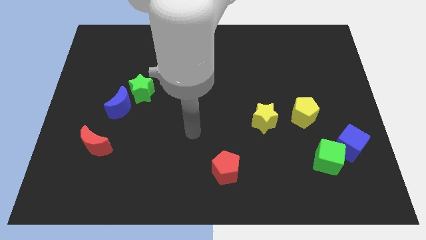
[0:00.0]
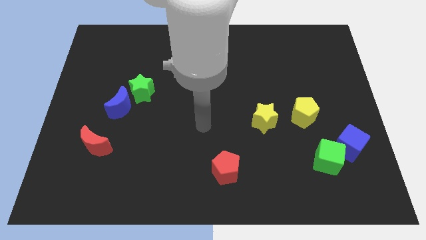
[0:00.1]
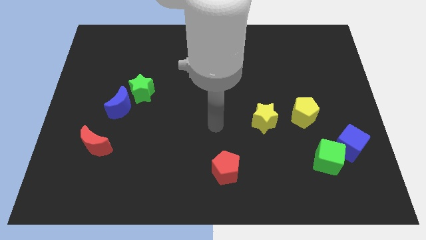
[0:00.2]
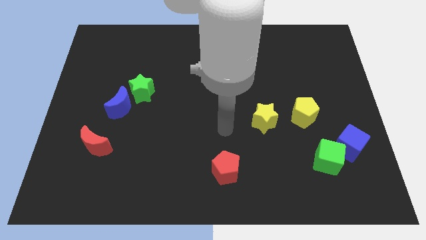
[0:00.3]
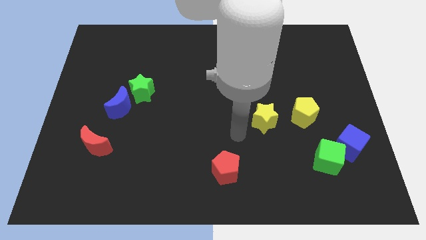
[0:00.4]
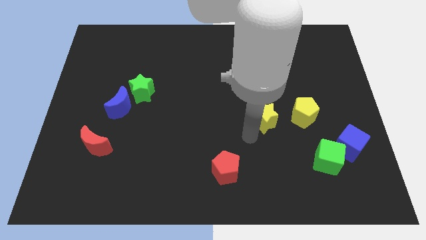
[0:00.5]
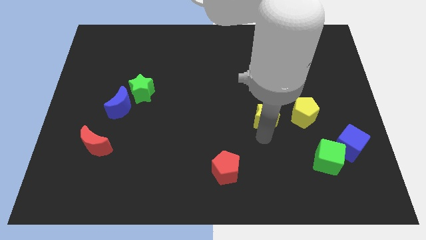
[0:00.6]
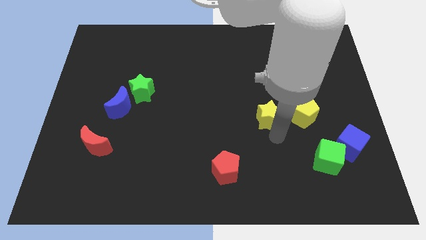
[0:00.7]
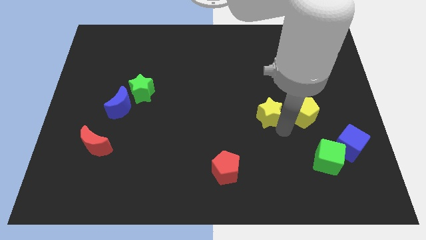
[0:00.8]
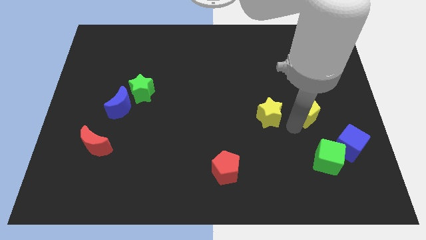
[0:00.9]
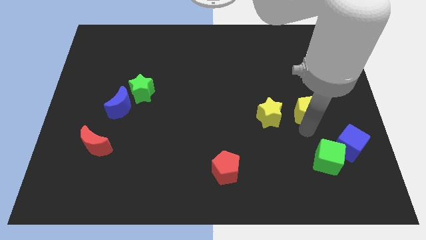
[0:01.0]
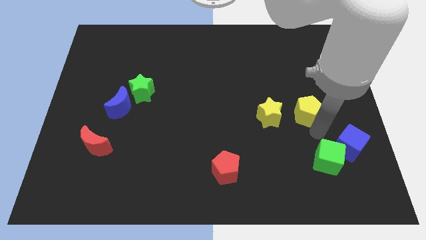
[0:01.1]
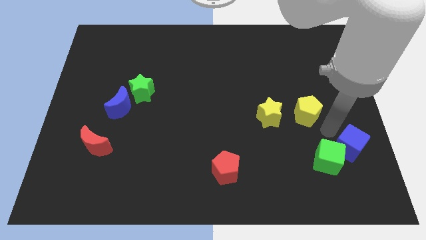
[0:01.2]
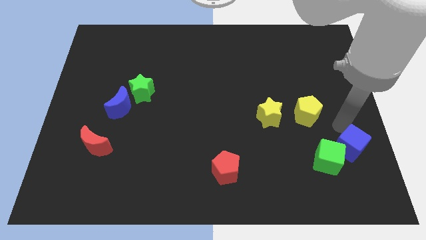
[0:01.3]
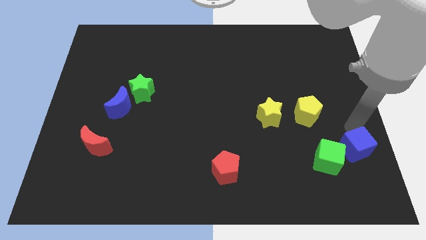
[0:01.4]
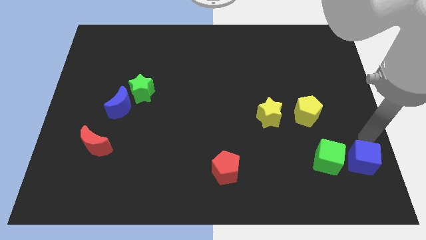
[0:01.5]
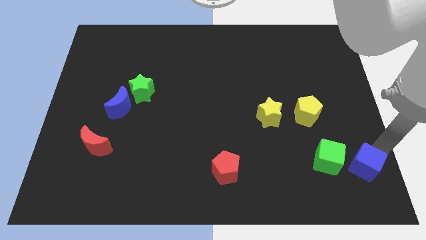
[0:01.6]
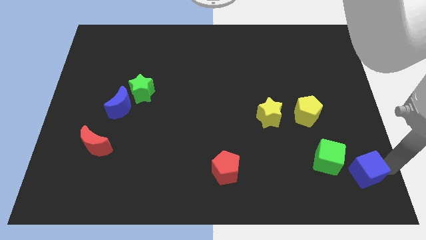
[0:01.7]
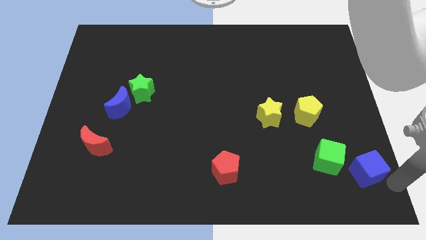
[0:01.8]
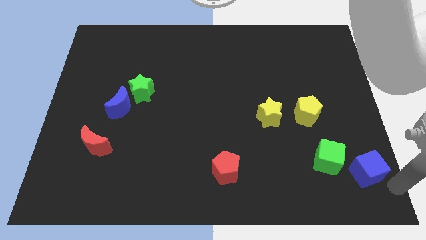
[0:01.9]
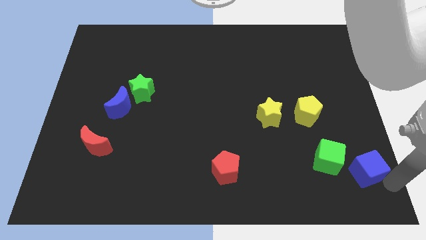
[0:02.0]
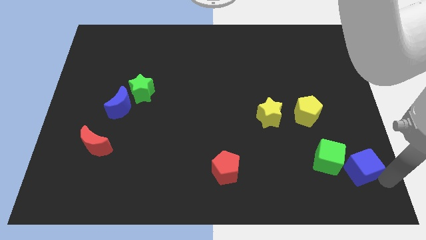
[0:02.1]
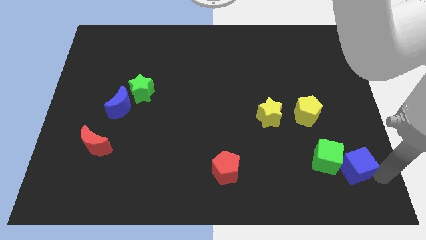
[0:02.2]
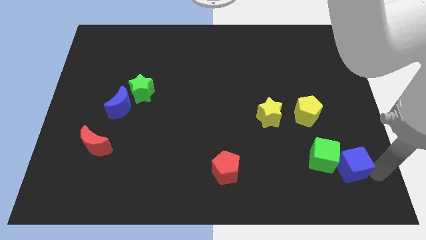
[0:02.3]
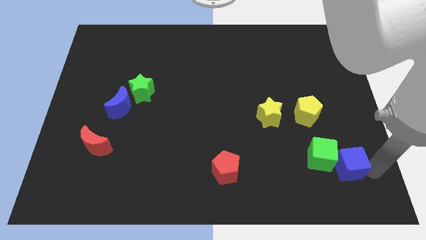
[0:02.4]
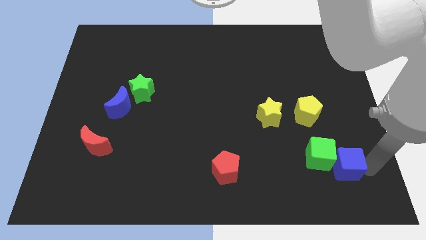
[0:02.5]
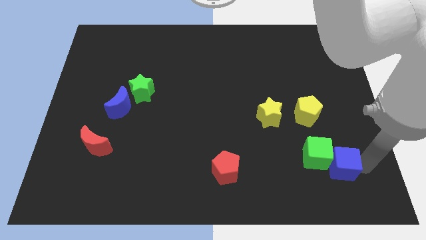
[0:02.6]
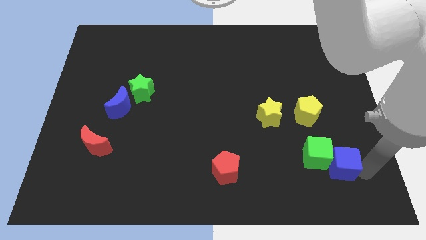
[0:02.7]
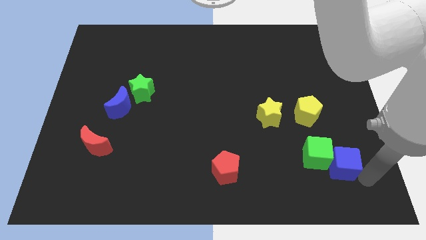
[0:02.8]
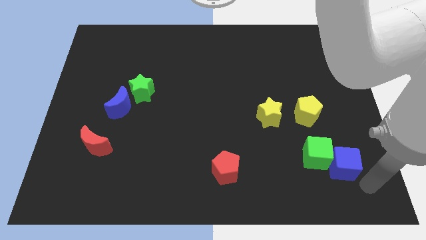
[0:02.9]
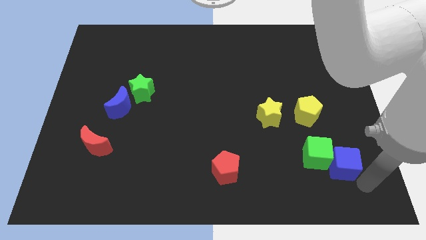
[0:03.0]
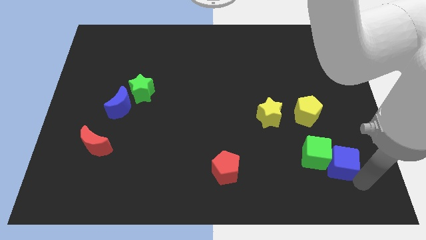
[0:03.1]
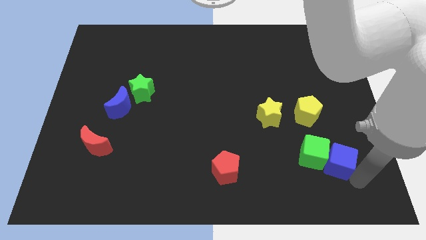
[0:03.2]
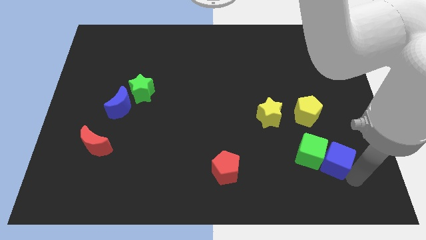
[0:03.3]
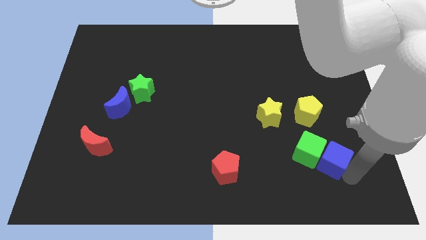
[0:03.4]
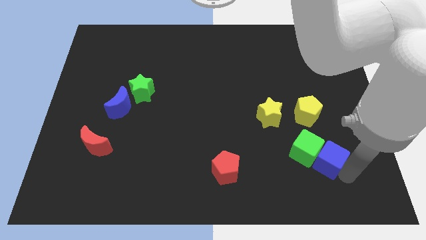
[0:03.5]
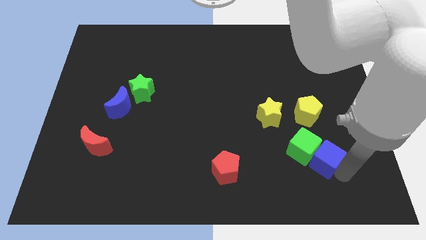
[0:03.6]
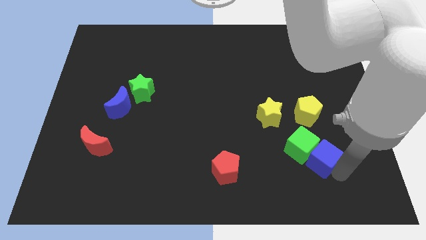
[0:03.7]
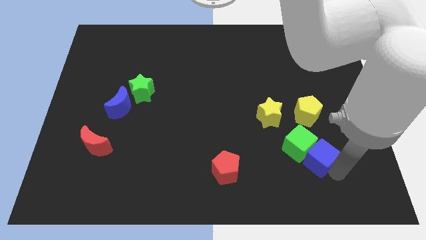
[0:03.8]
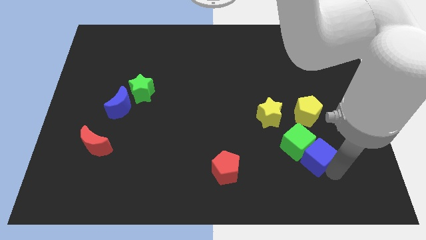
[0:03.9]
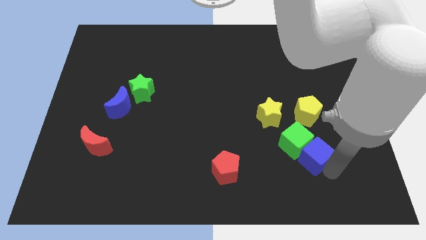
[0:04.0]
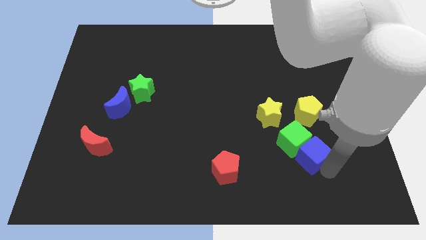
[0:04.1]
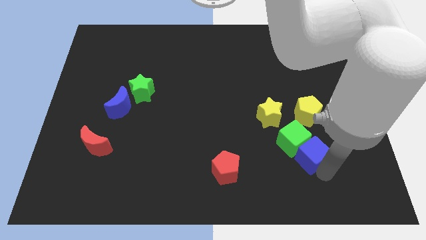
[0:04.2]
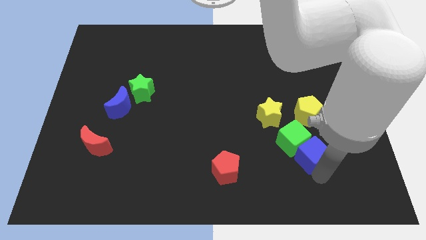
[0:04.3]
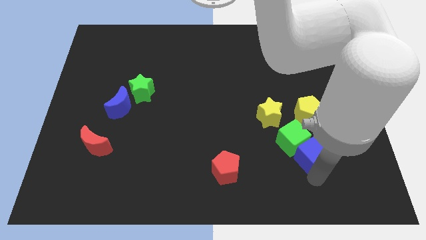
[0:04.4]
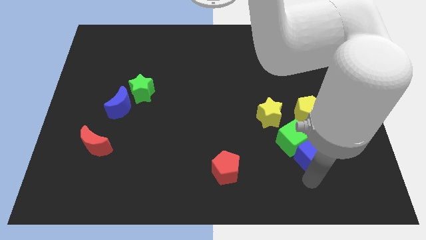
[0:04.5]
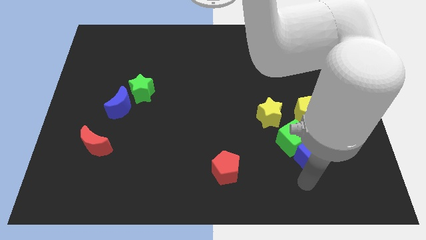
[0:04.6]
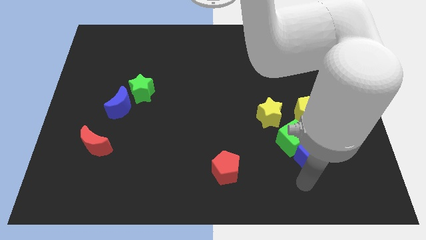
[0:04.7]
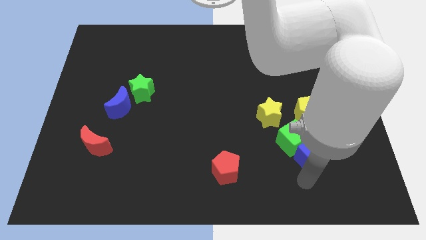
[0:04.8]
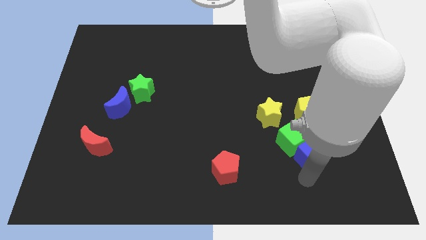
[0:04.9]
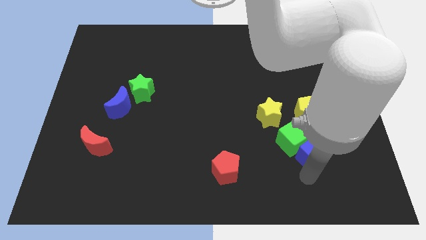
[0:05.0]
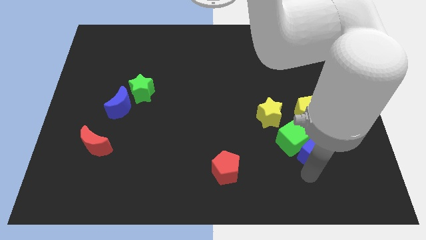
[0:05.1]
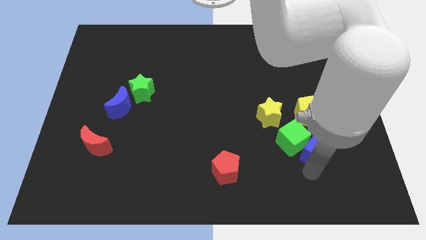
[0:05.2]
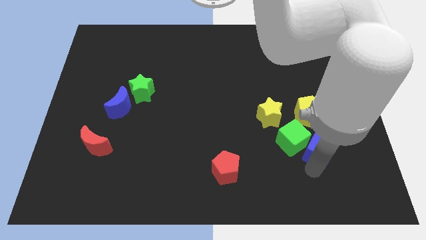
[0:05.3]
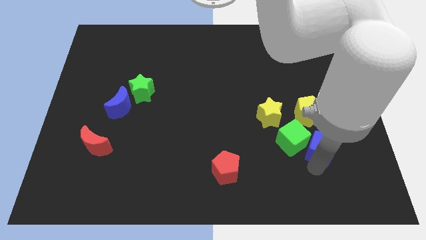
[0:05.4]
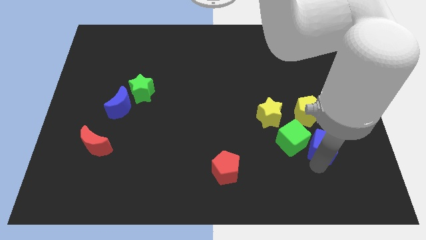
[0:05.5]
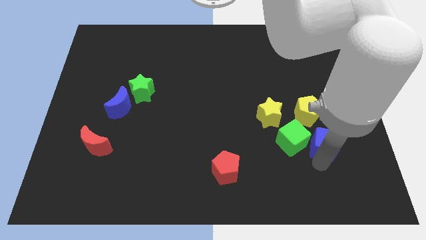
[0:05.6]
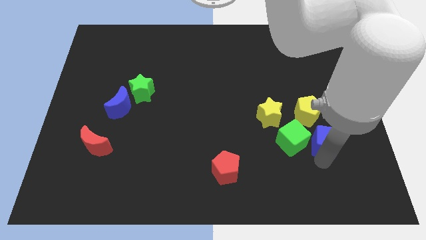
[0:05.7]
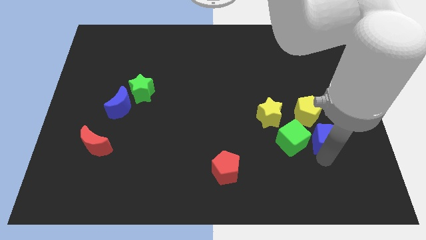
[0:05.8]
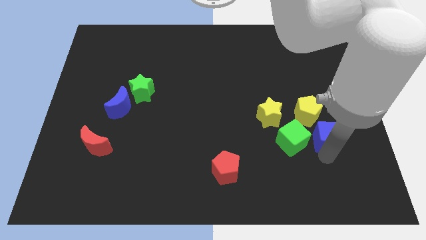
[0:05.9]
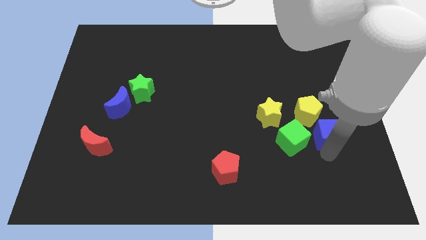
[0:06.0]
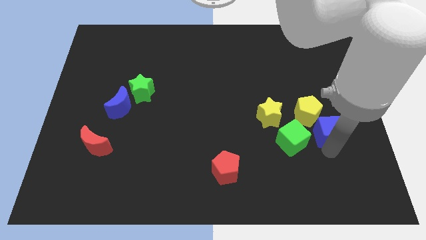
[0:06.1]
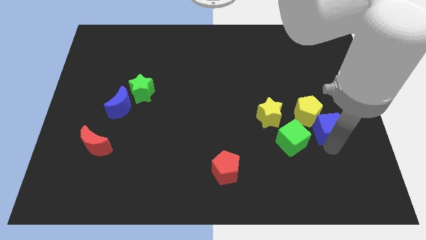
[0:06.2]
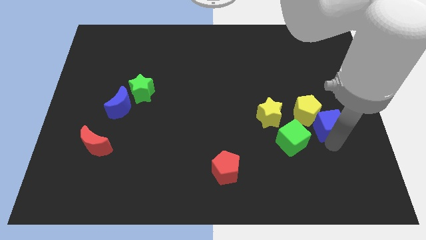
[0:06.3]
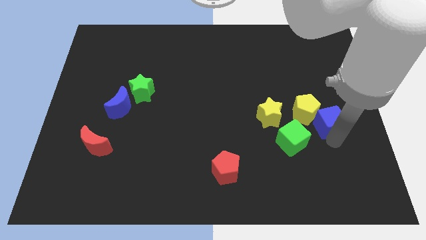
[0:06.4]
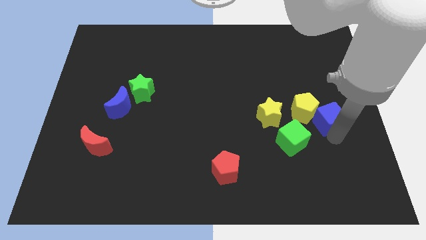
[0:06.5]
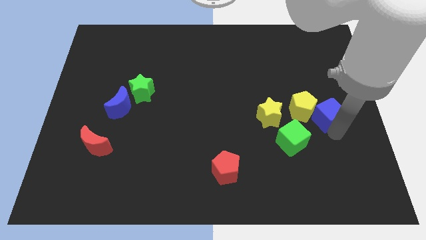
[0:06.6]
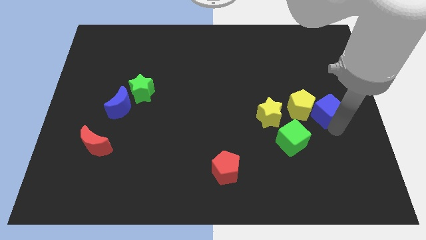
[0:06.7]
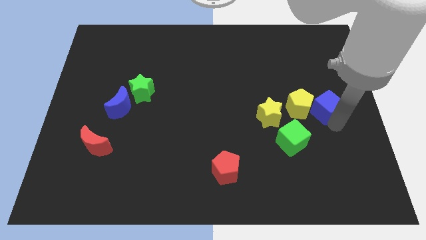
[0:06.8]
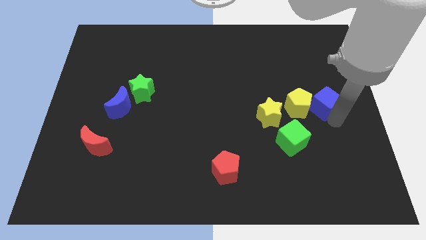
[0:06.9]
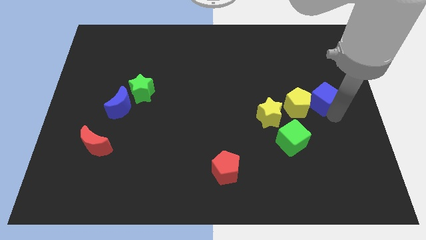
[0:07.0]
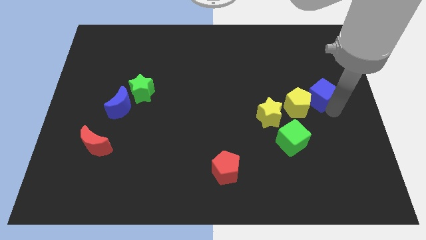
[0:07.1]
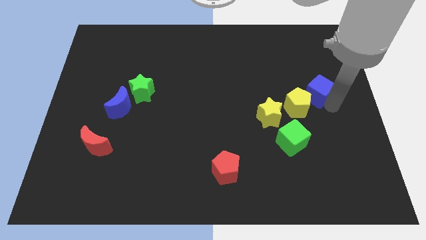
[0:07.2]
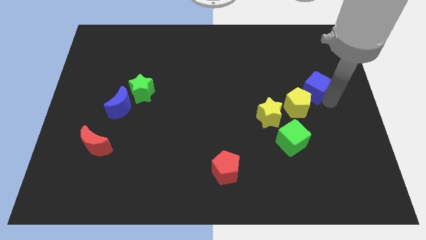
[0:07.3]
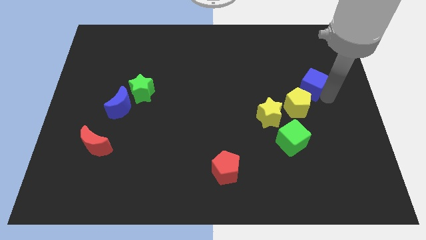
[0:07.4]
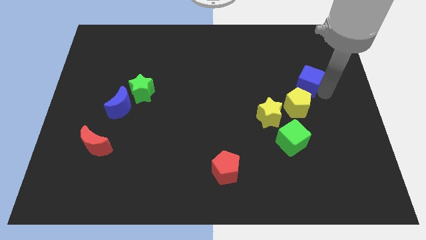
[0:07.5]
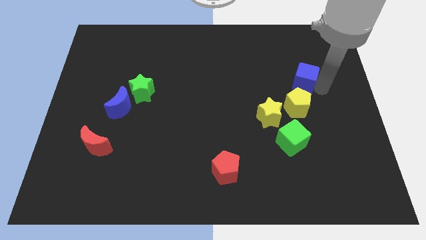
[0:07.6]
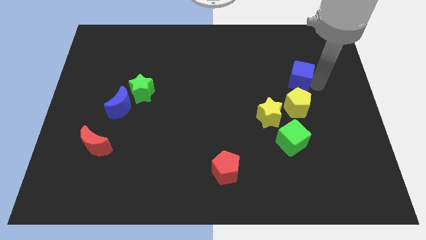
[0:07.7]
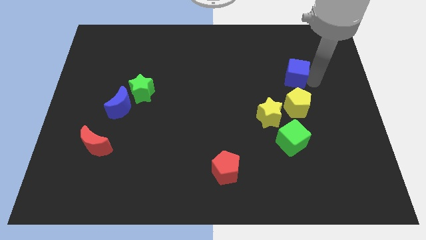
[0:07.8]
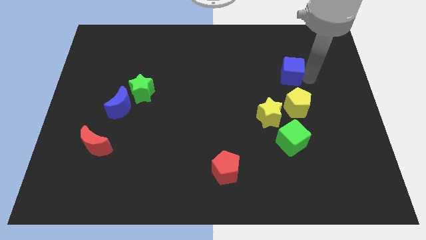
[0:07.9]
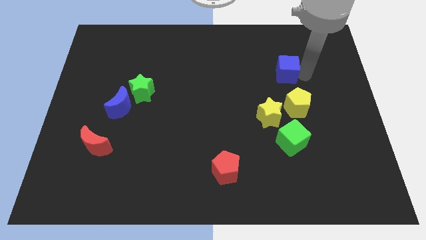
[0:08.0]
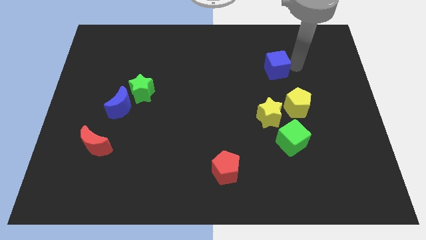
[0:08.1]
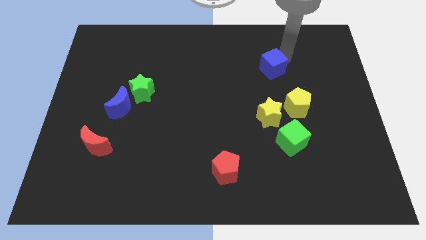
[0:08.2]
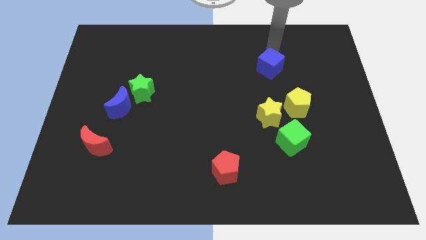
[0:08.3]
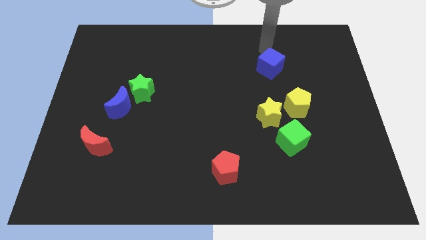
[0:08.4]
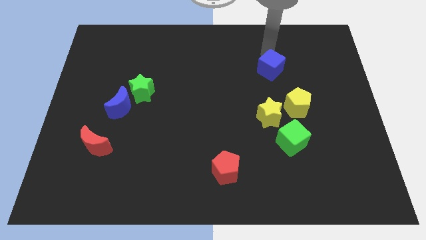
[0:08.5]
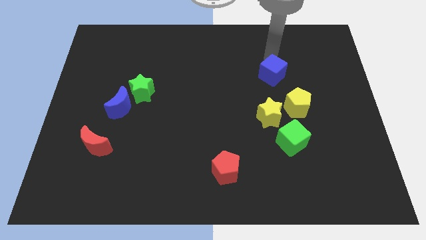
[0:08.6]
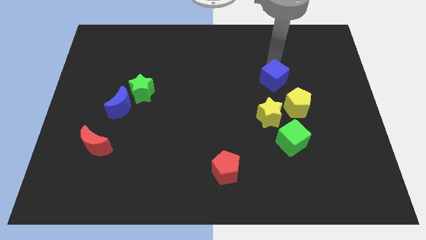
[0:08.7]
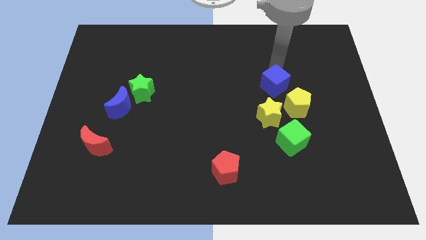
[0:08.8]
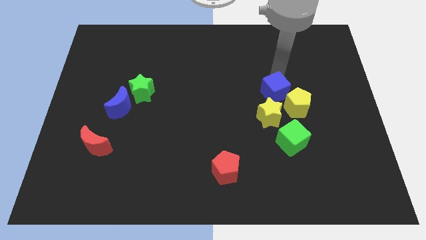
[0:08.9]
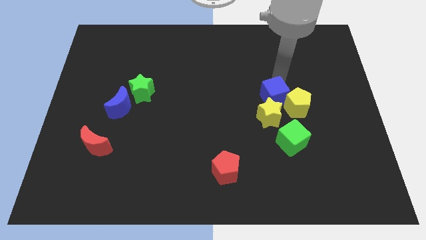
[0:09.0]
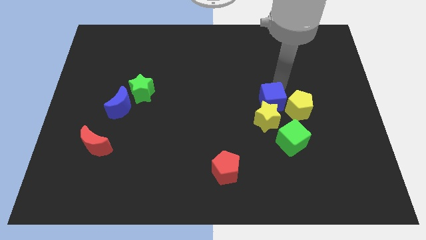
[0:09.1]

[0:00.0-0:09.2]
put the blue cube to the top left of the yellow star
